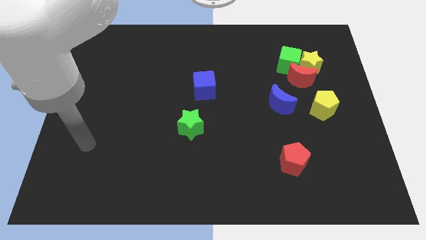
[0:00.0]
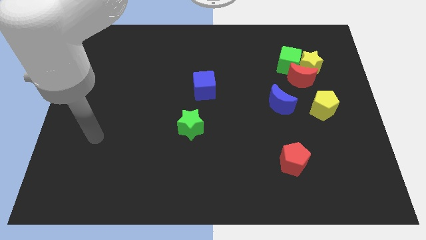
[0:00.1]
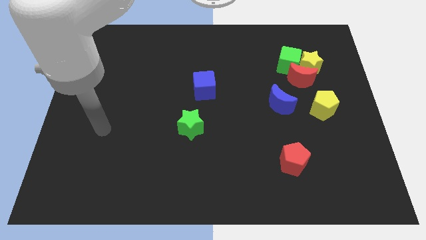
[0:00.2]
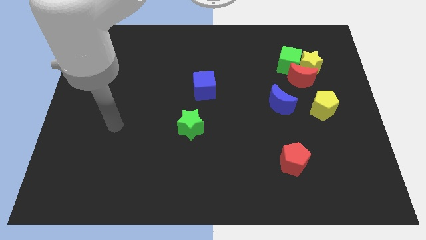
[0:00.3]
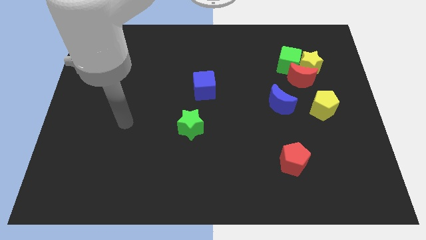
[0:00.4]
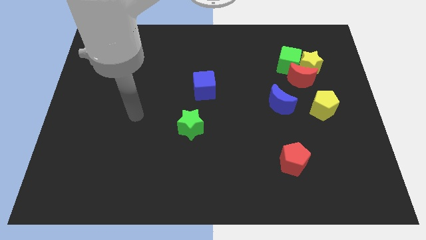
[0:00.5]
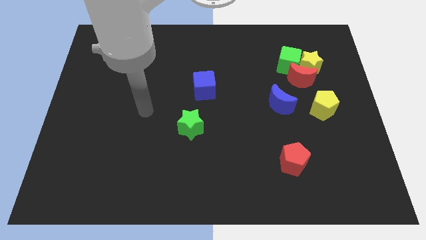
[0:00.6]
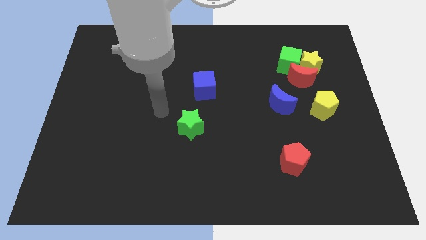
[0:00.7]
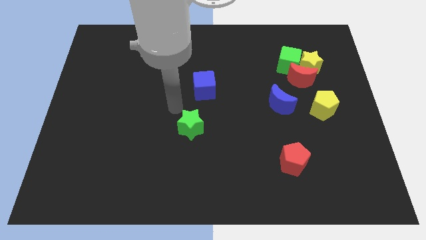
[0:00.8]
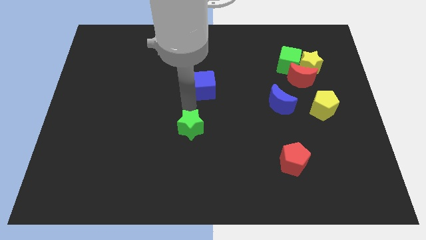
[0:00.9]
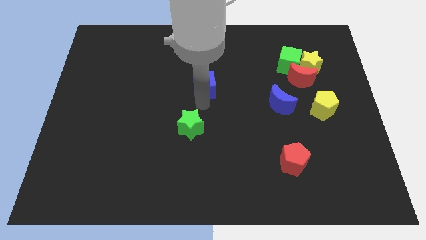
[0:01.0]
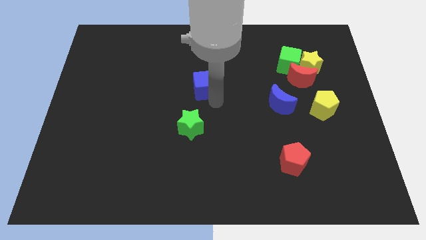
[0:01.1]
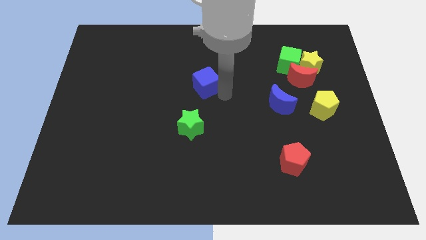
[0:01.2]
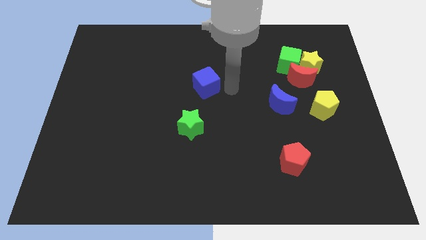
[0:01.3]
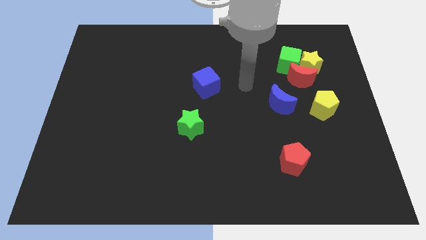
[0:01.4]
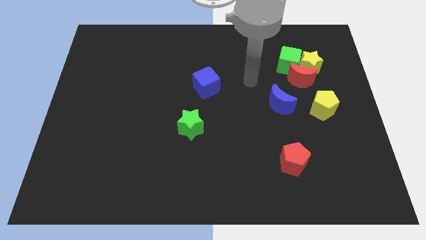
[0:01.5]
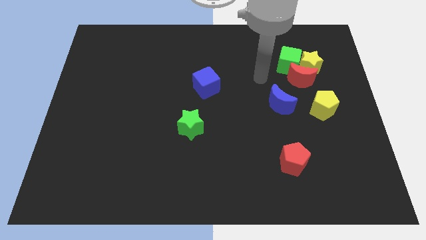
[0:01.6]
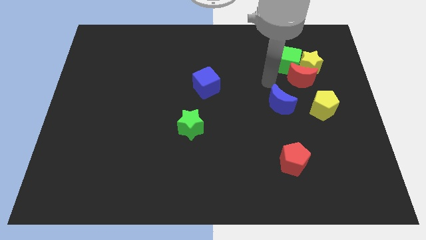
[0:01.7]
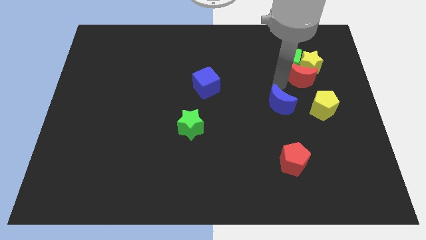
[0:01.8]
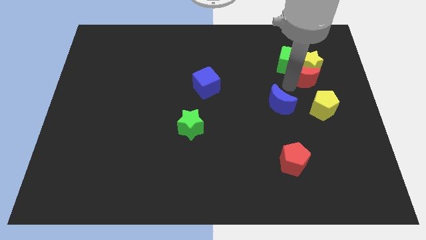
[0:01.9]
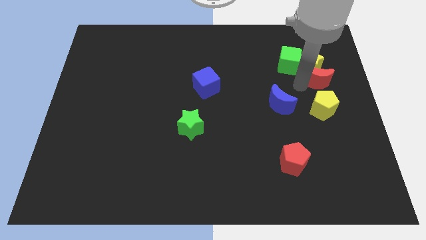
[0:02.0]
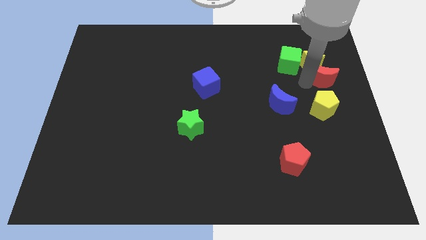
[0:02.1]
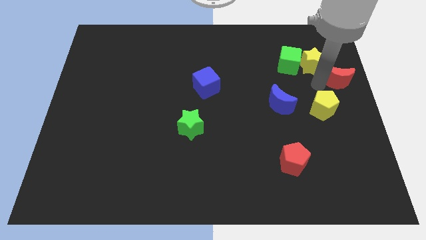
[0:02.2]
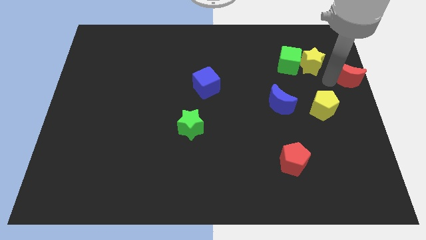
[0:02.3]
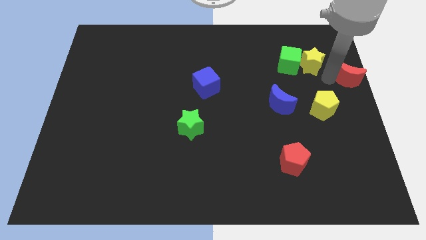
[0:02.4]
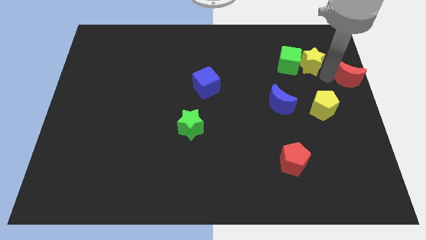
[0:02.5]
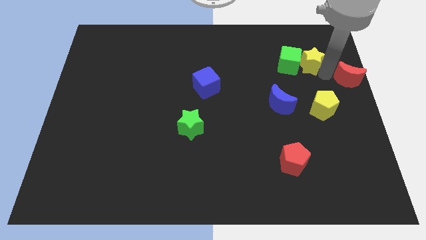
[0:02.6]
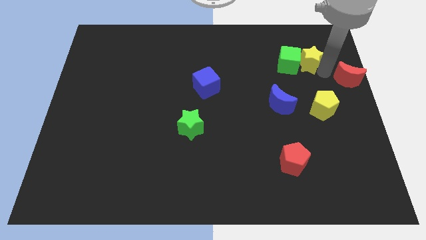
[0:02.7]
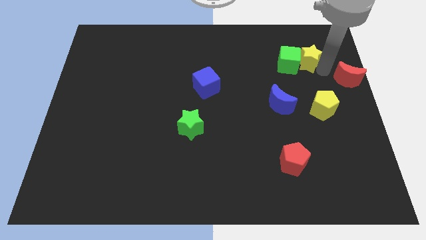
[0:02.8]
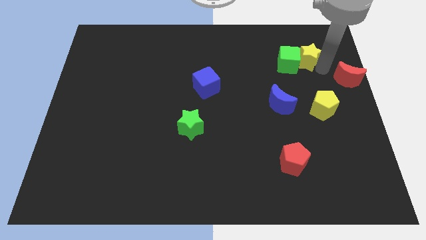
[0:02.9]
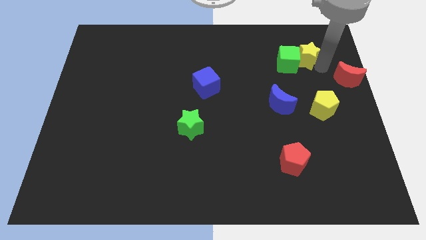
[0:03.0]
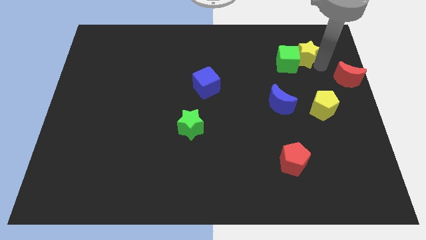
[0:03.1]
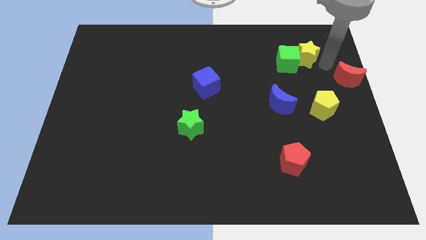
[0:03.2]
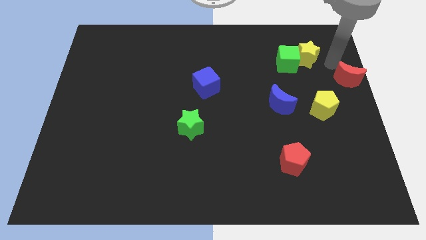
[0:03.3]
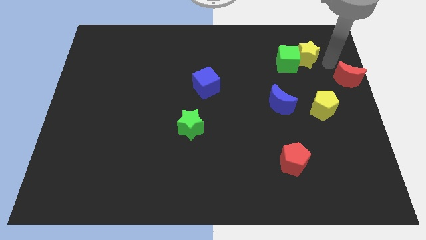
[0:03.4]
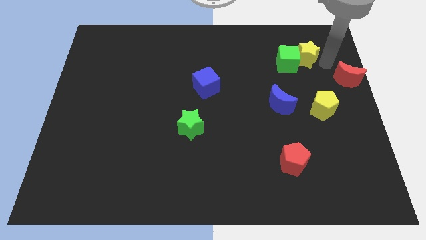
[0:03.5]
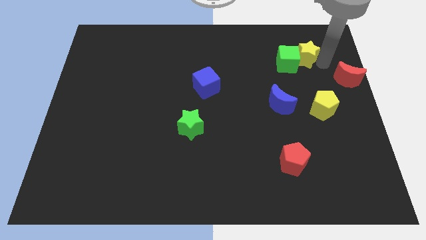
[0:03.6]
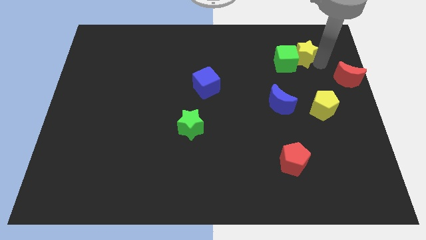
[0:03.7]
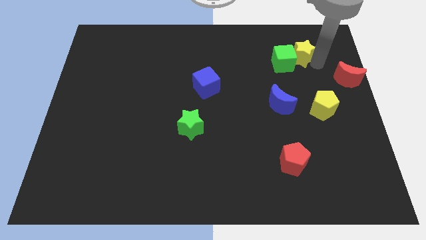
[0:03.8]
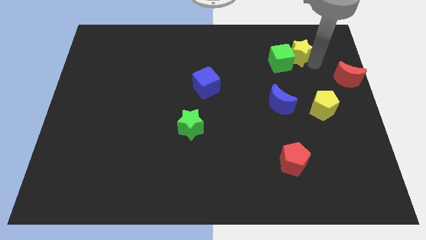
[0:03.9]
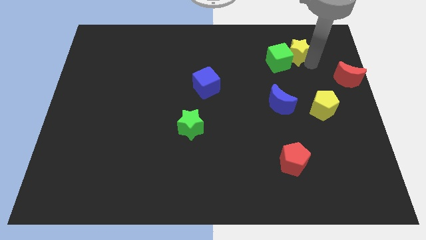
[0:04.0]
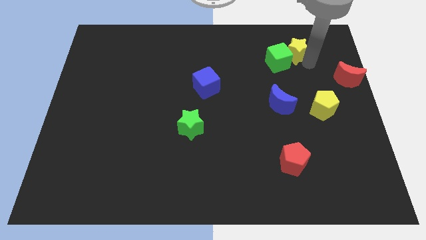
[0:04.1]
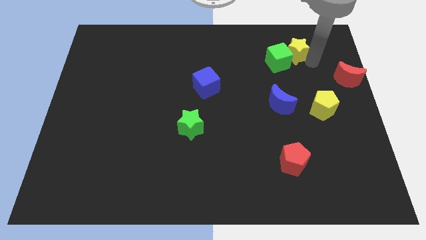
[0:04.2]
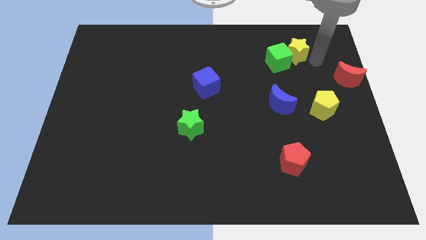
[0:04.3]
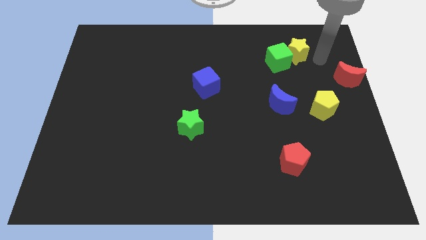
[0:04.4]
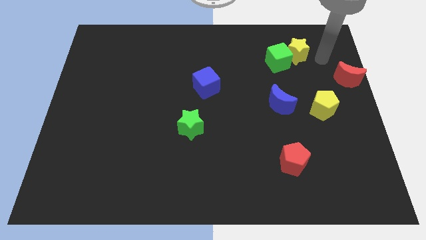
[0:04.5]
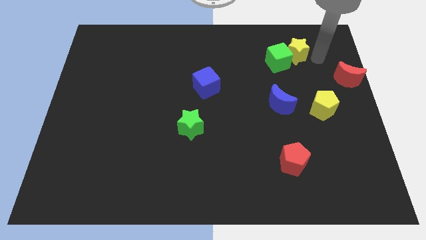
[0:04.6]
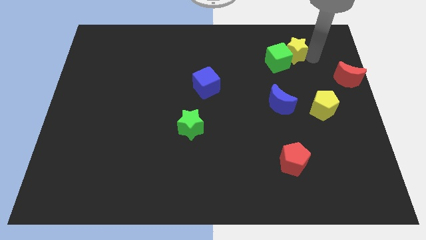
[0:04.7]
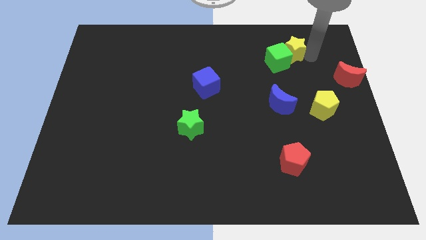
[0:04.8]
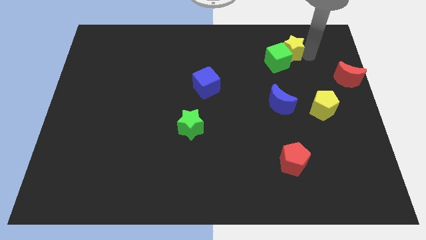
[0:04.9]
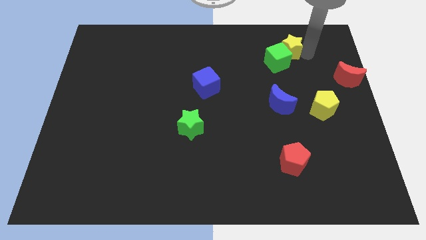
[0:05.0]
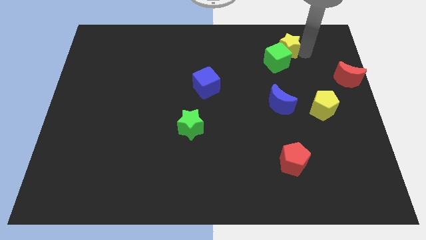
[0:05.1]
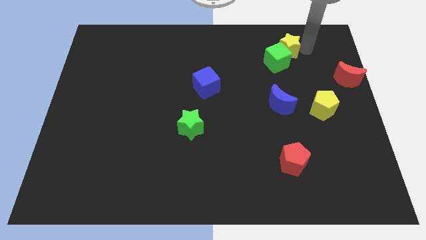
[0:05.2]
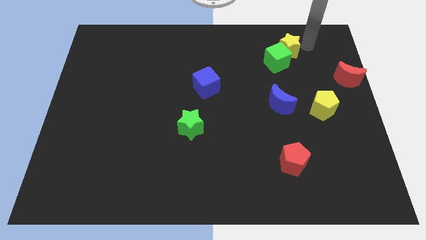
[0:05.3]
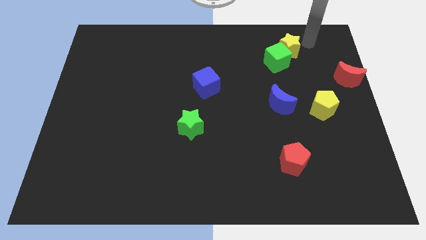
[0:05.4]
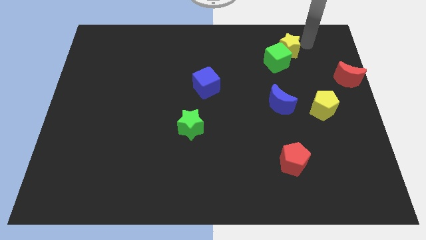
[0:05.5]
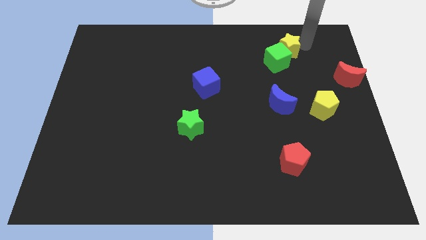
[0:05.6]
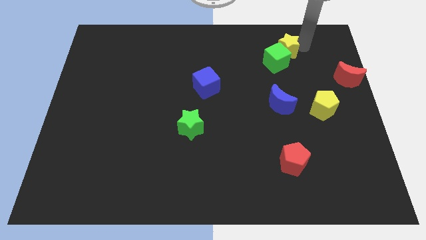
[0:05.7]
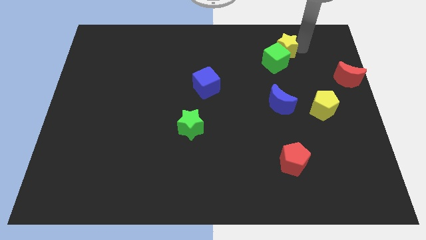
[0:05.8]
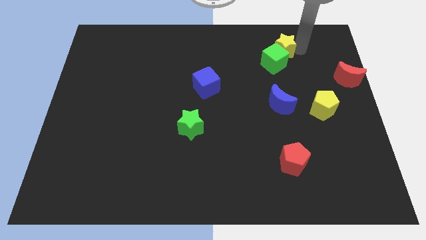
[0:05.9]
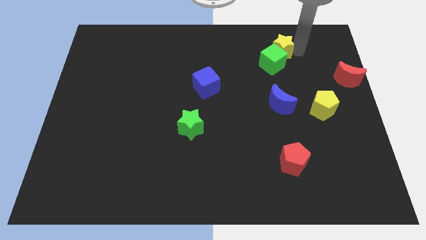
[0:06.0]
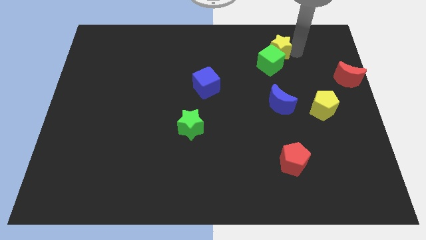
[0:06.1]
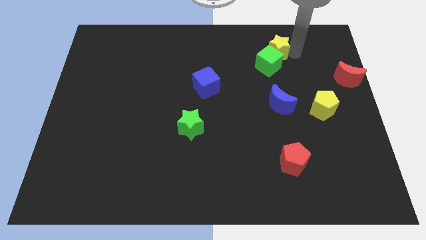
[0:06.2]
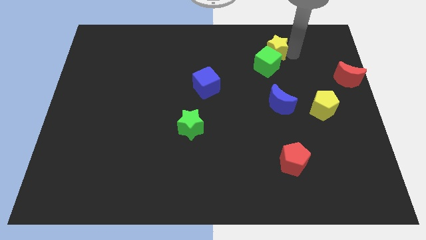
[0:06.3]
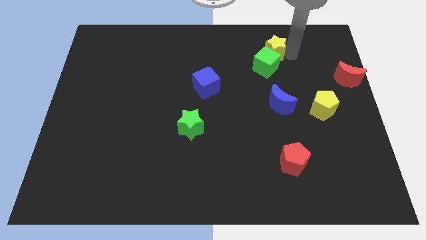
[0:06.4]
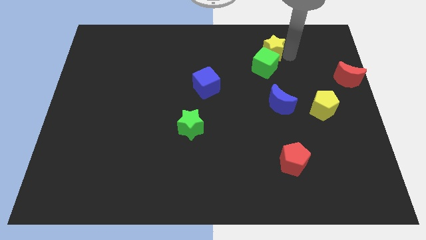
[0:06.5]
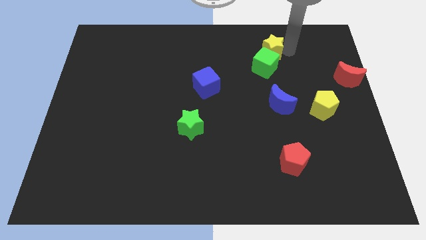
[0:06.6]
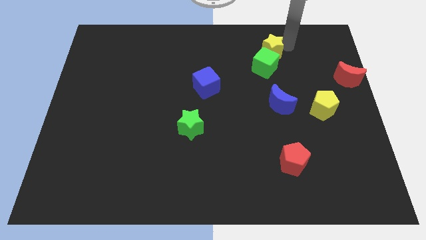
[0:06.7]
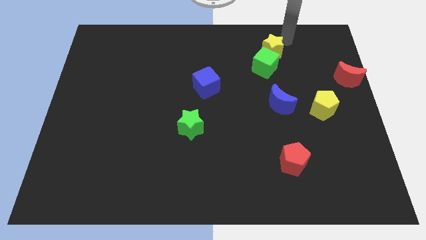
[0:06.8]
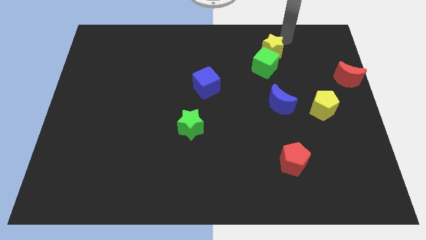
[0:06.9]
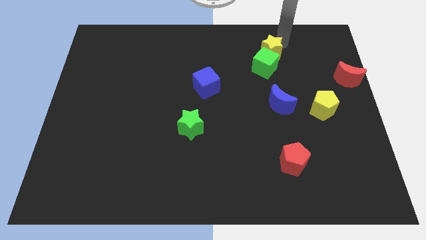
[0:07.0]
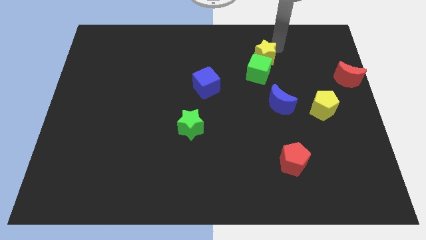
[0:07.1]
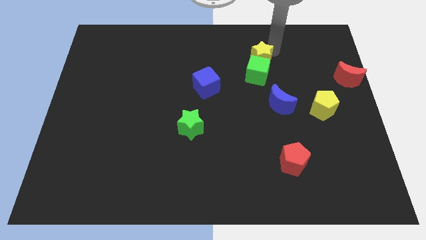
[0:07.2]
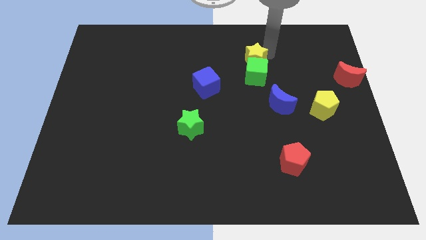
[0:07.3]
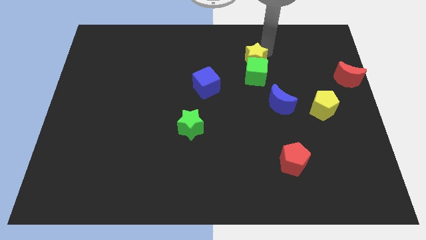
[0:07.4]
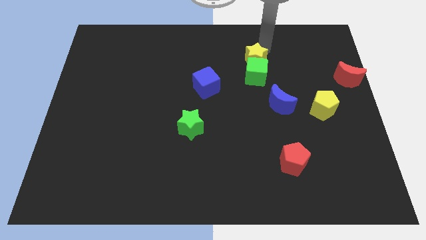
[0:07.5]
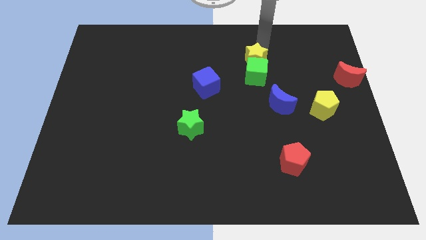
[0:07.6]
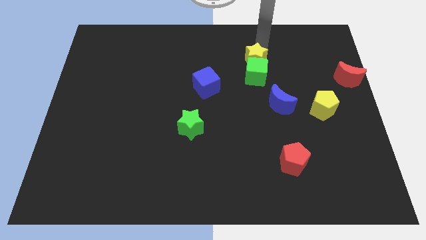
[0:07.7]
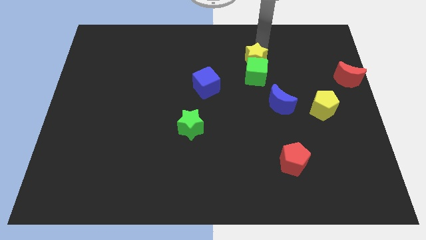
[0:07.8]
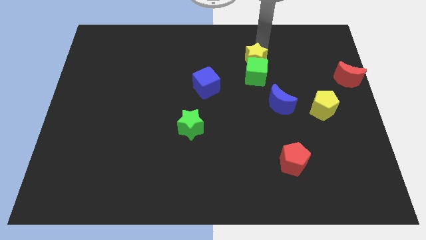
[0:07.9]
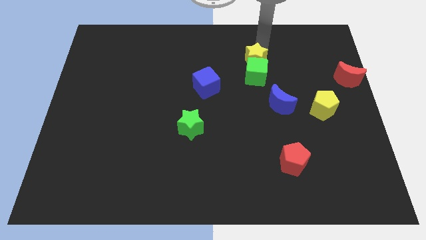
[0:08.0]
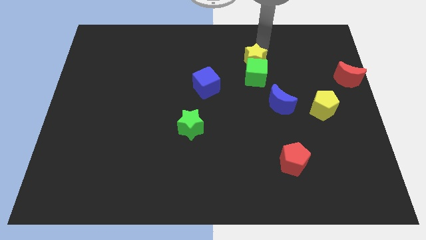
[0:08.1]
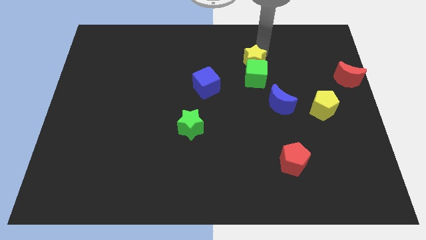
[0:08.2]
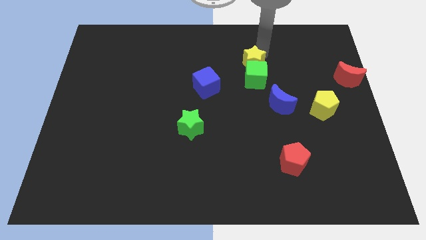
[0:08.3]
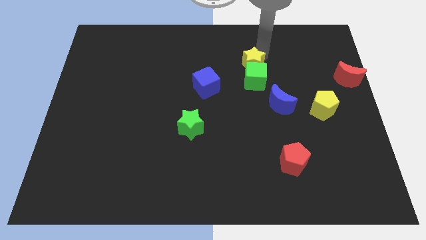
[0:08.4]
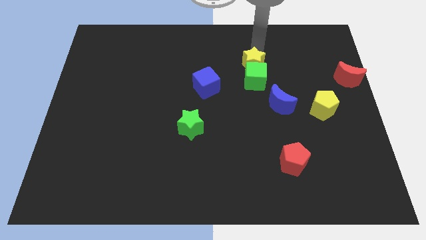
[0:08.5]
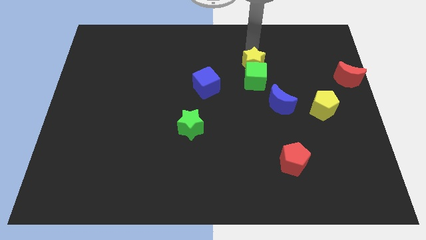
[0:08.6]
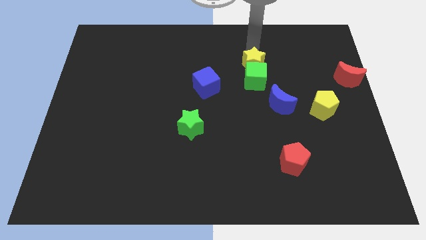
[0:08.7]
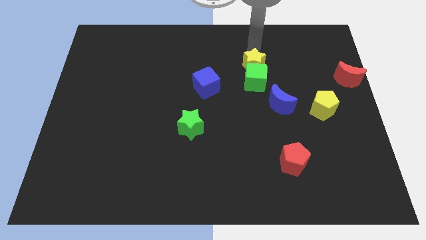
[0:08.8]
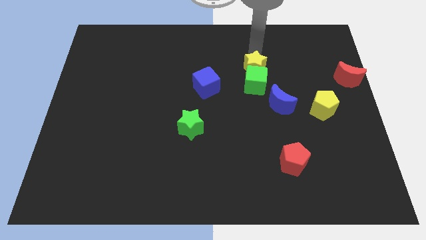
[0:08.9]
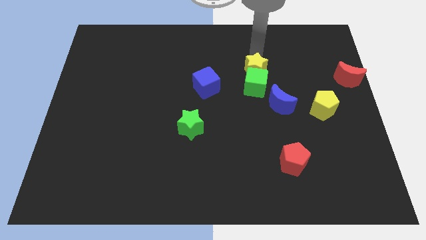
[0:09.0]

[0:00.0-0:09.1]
slide the yellow star somewhat downwards and to the left
